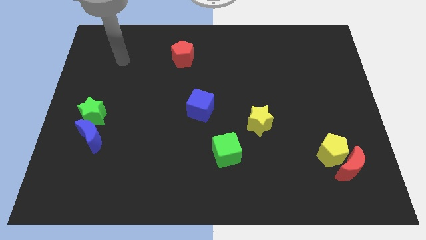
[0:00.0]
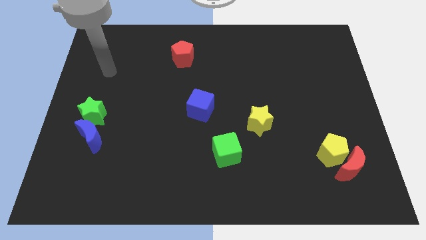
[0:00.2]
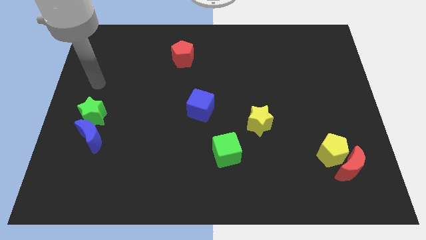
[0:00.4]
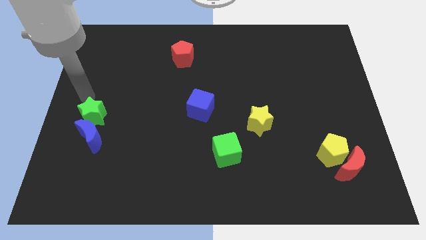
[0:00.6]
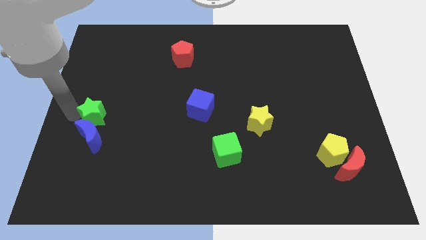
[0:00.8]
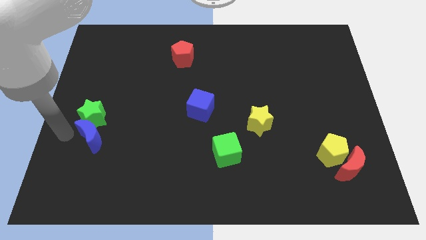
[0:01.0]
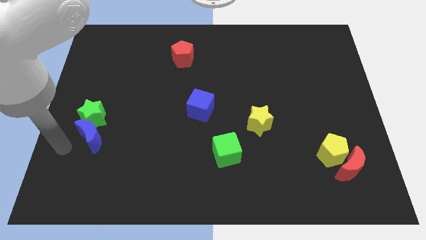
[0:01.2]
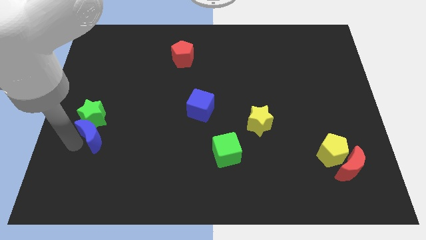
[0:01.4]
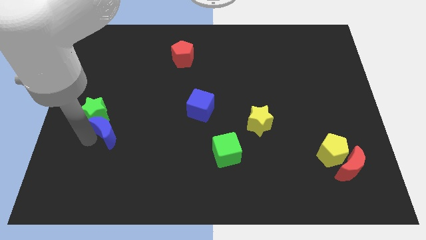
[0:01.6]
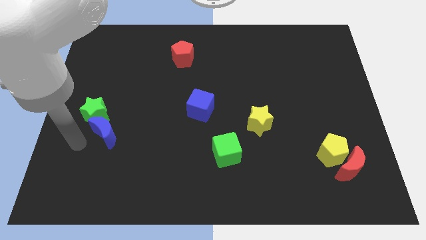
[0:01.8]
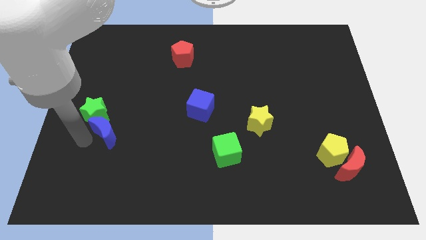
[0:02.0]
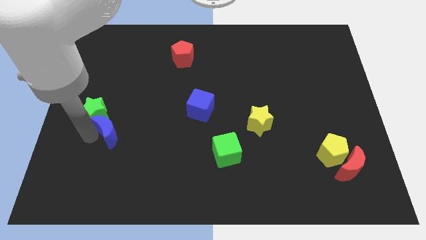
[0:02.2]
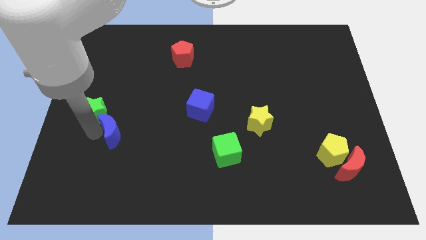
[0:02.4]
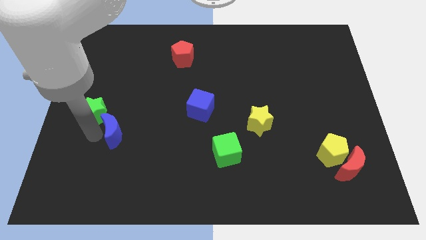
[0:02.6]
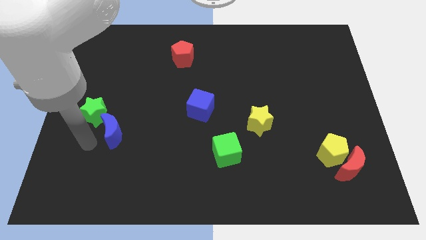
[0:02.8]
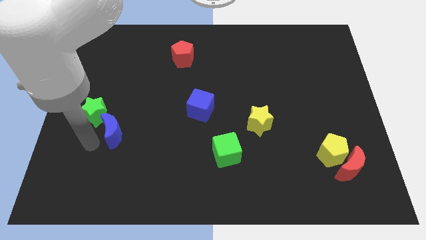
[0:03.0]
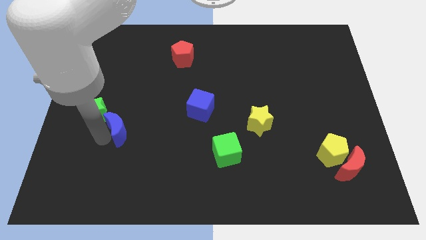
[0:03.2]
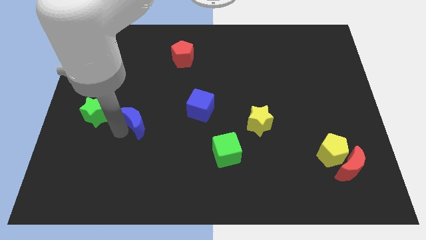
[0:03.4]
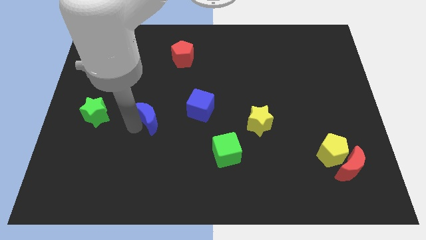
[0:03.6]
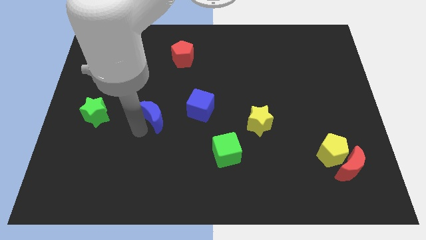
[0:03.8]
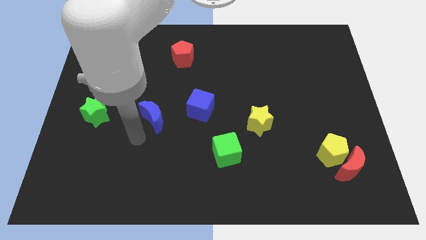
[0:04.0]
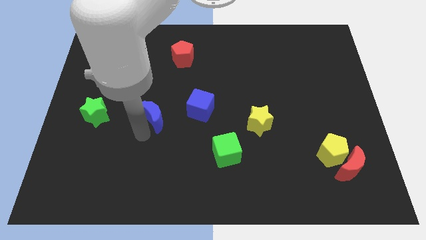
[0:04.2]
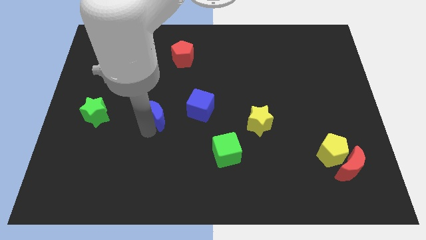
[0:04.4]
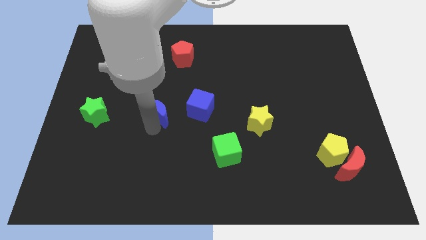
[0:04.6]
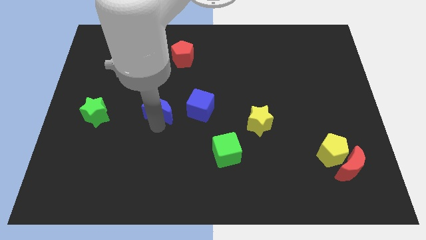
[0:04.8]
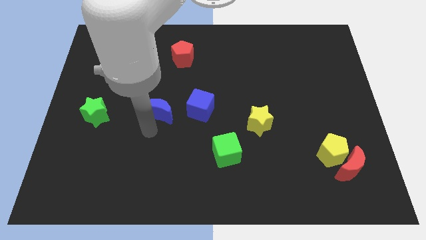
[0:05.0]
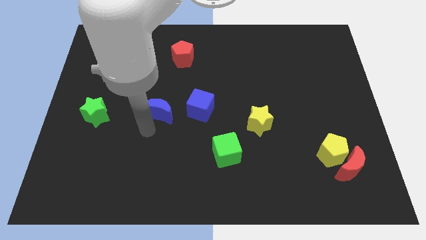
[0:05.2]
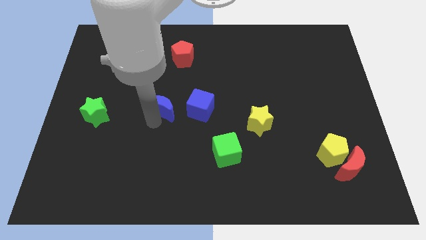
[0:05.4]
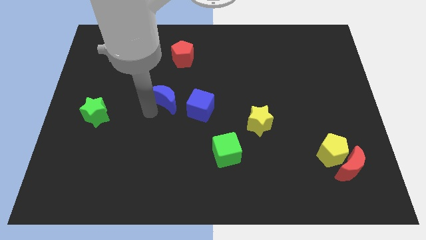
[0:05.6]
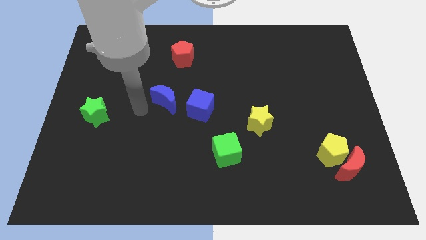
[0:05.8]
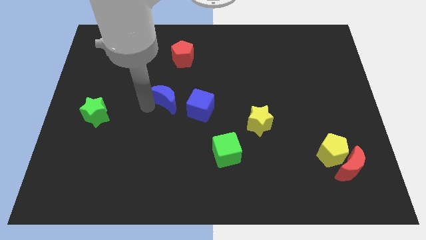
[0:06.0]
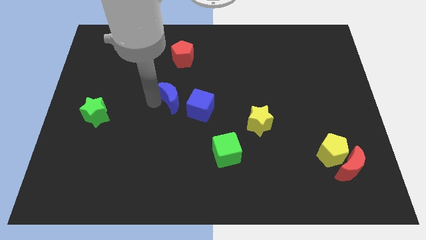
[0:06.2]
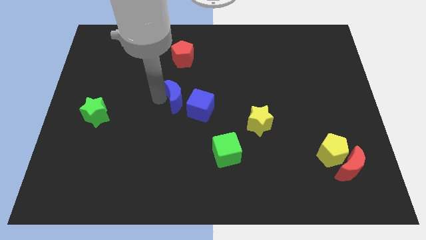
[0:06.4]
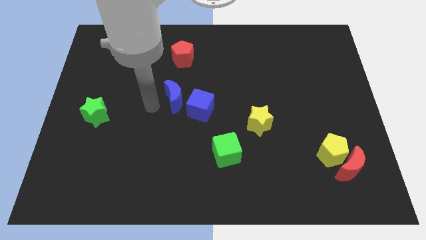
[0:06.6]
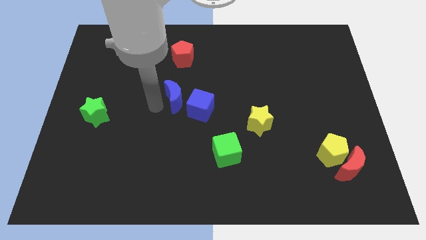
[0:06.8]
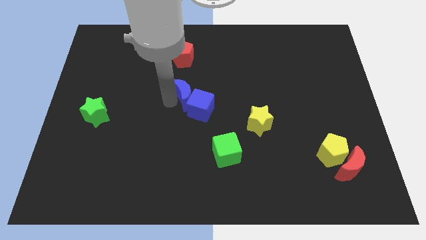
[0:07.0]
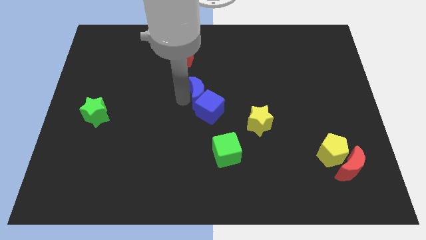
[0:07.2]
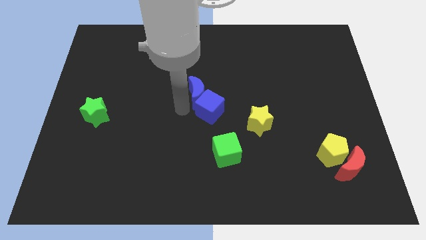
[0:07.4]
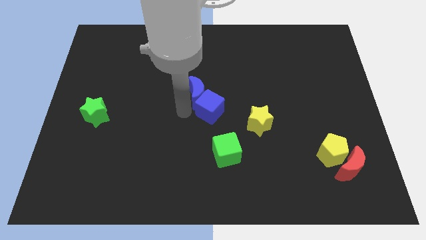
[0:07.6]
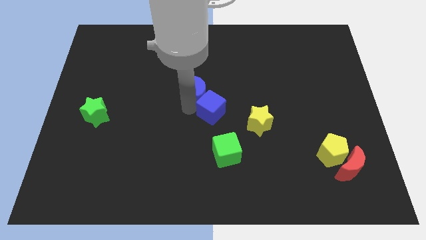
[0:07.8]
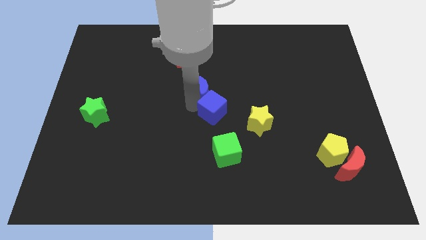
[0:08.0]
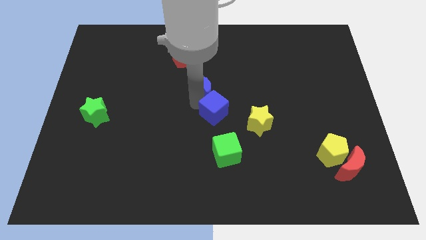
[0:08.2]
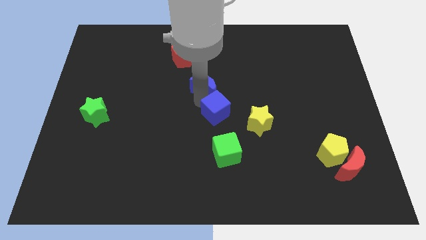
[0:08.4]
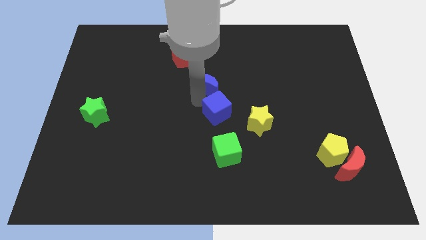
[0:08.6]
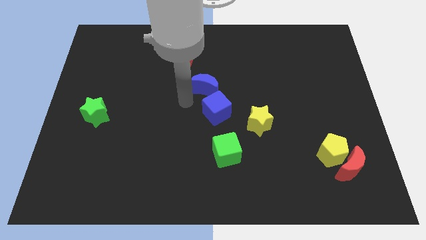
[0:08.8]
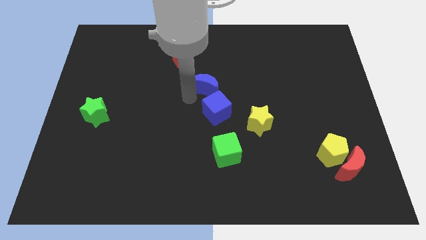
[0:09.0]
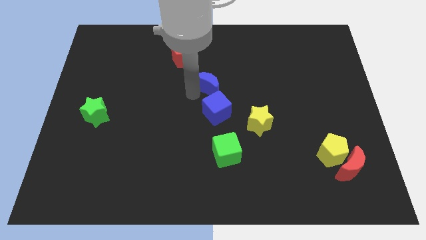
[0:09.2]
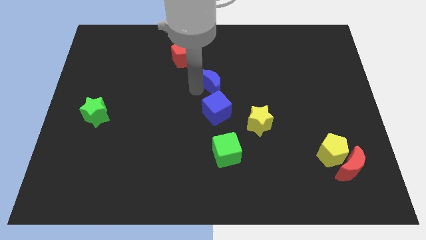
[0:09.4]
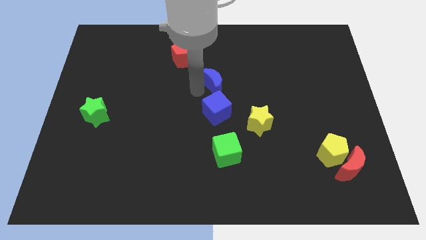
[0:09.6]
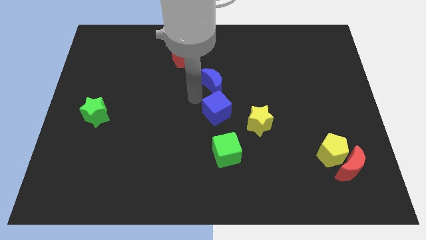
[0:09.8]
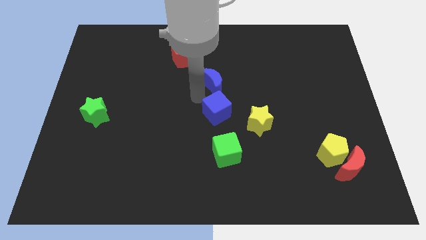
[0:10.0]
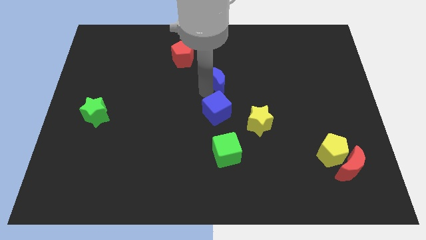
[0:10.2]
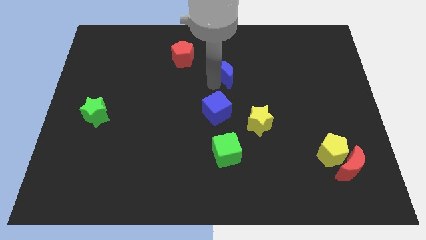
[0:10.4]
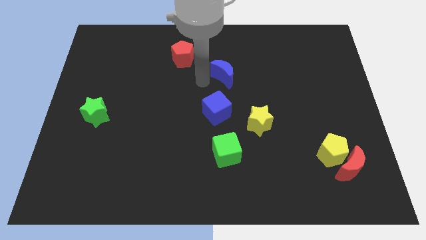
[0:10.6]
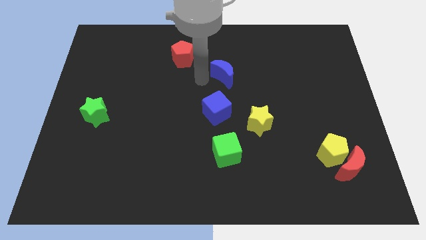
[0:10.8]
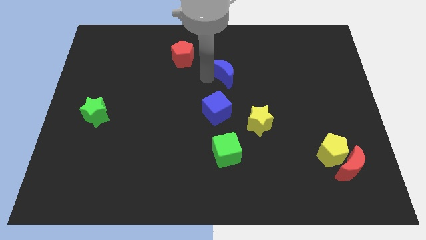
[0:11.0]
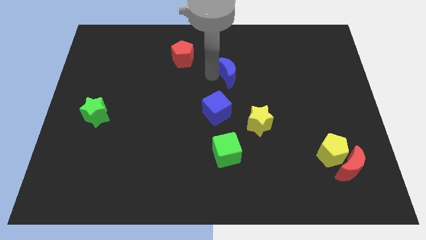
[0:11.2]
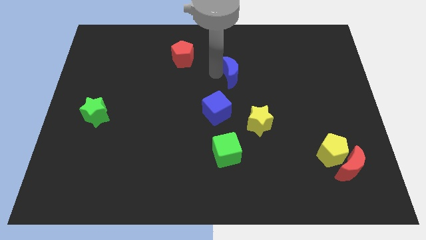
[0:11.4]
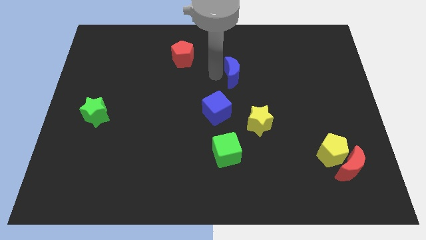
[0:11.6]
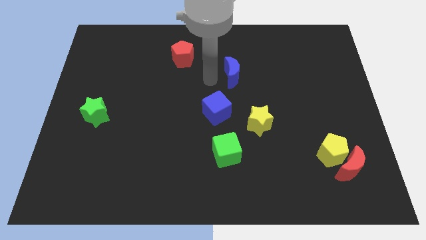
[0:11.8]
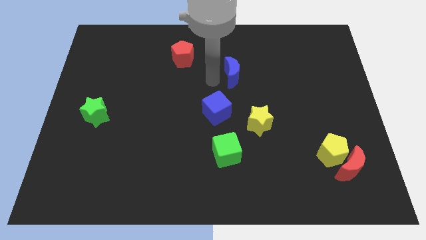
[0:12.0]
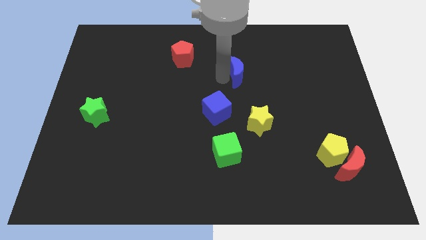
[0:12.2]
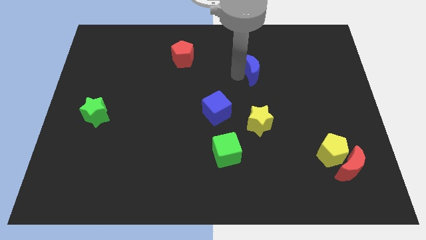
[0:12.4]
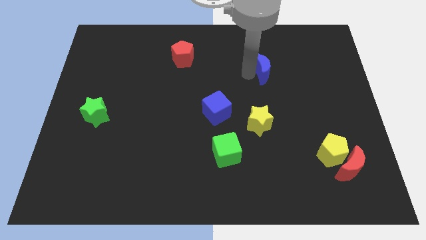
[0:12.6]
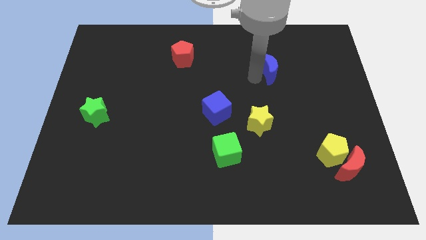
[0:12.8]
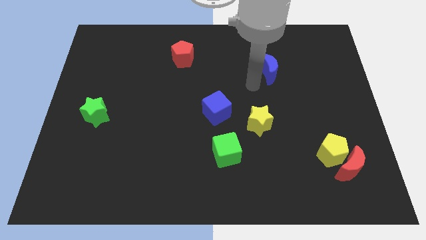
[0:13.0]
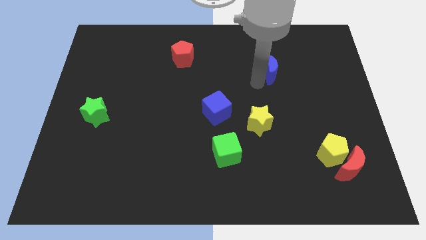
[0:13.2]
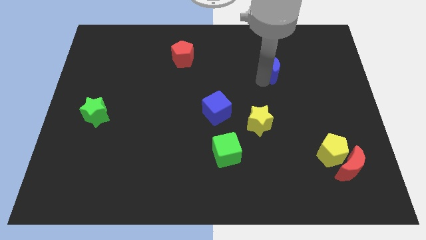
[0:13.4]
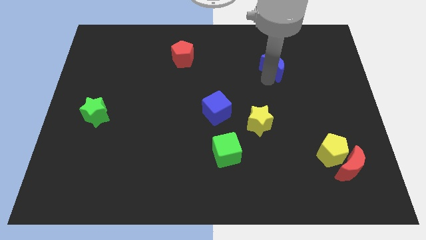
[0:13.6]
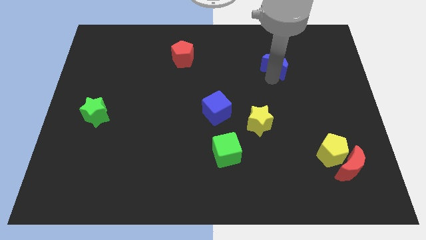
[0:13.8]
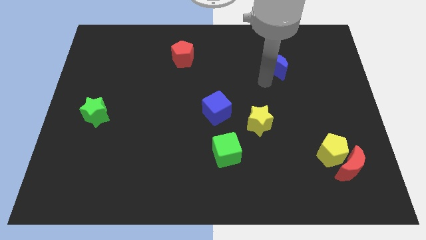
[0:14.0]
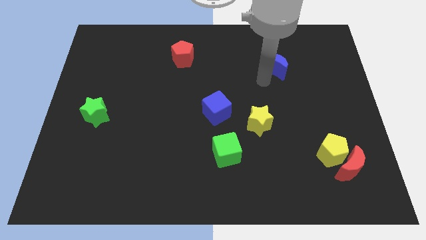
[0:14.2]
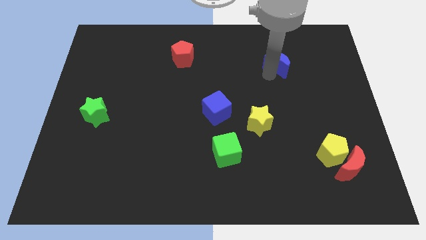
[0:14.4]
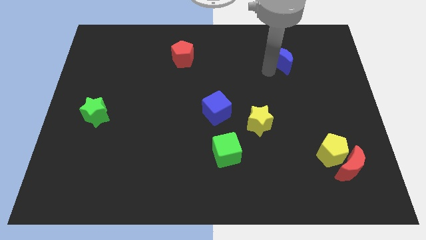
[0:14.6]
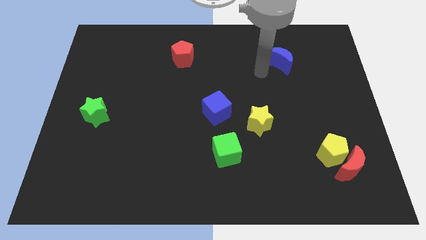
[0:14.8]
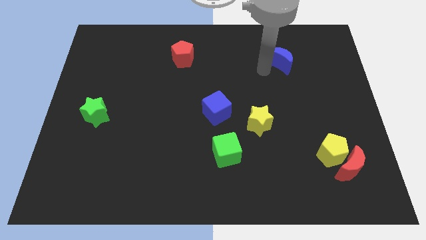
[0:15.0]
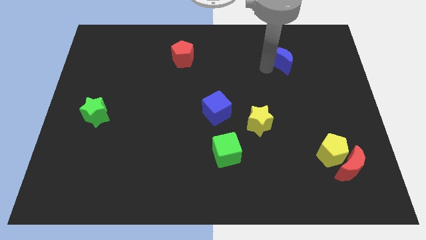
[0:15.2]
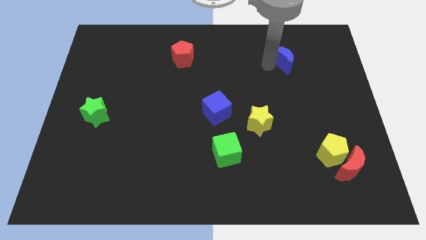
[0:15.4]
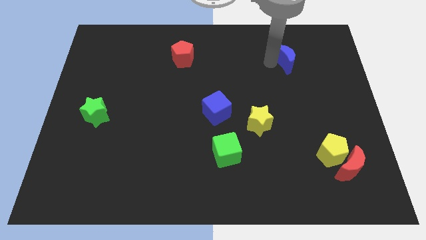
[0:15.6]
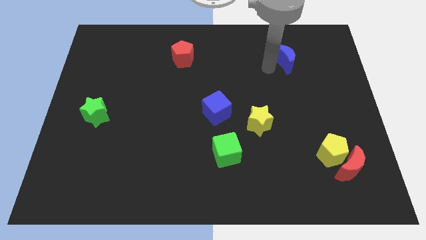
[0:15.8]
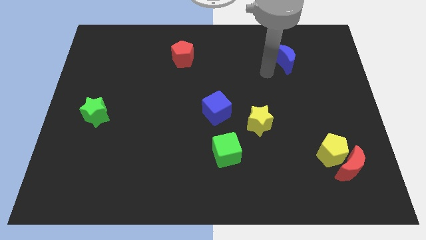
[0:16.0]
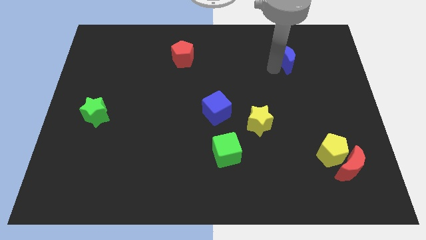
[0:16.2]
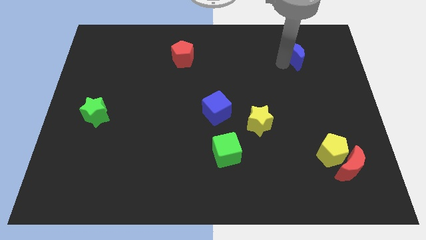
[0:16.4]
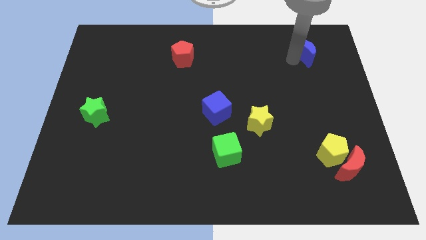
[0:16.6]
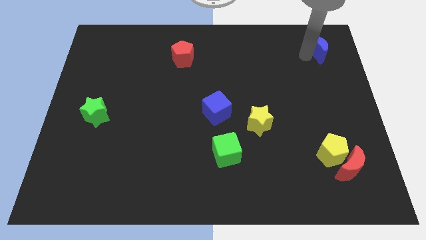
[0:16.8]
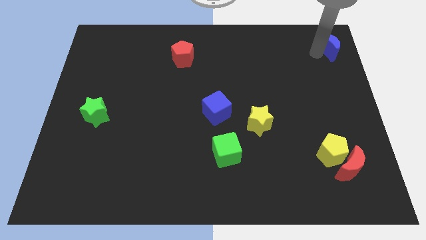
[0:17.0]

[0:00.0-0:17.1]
push the blue moon to the top right of the board
